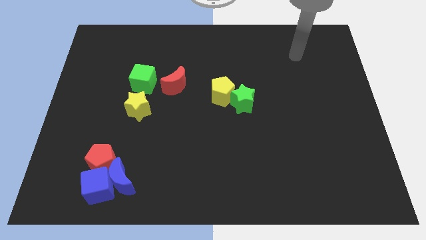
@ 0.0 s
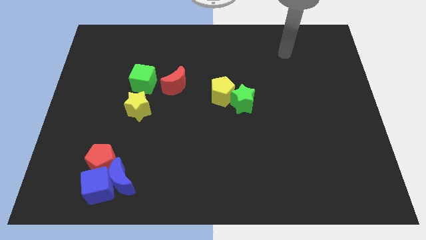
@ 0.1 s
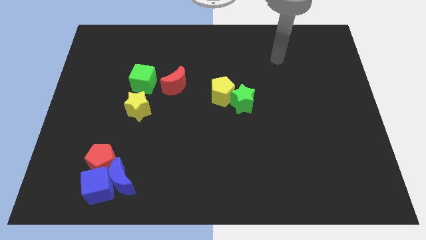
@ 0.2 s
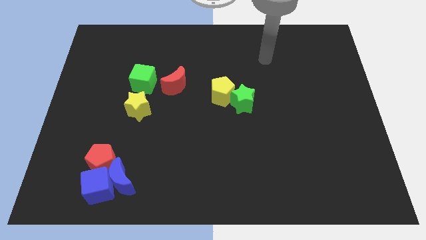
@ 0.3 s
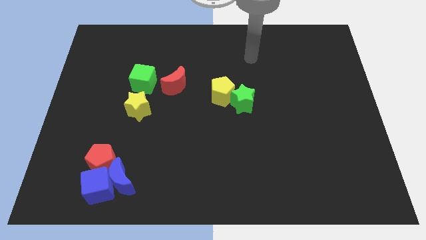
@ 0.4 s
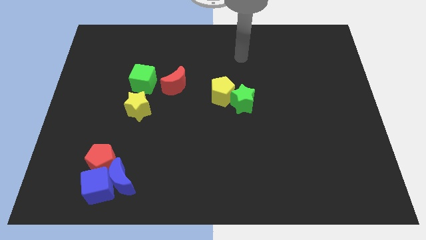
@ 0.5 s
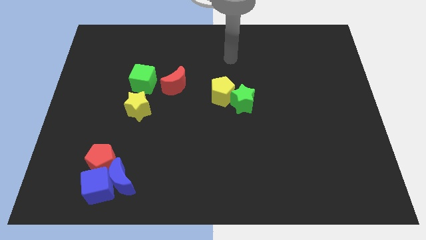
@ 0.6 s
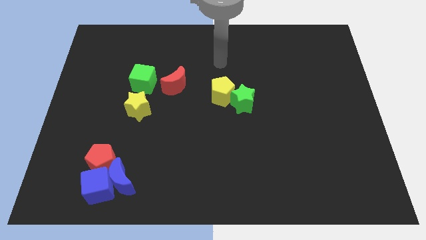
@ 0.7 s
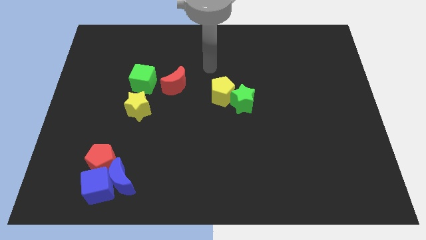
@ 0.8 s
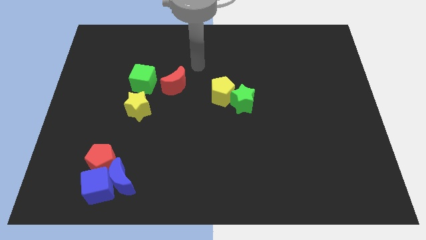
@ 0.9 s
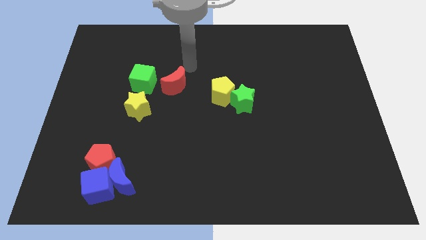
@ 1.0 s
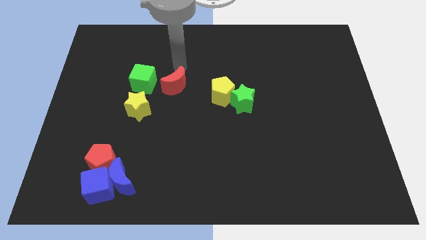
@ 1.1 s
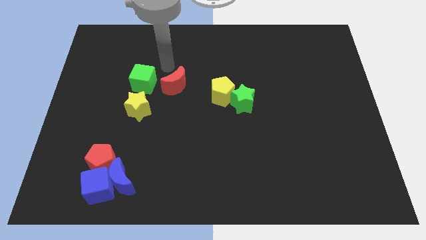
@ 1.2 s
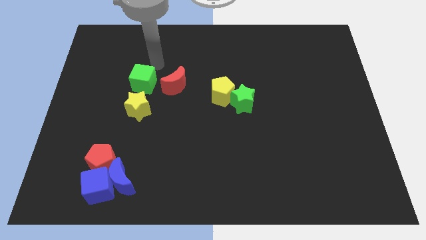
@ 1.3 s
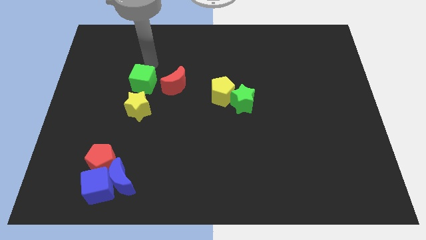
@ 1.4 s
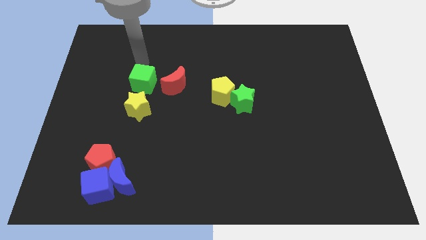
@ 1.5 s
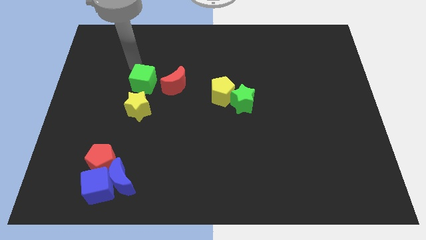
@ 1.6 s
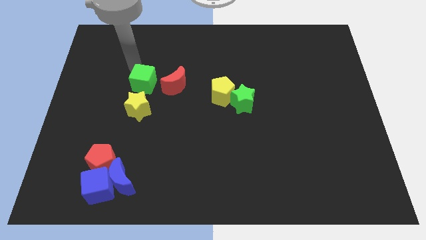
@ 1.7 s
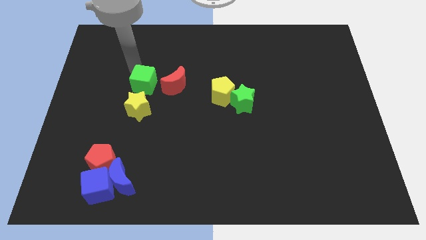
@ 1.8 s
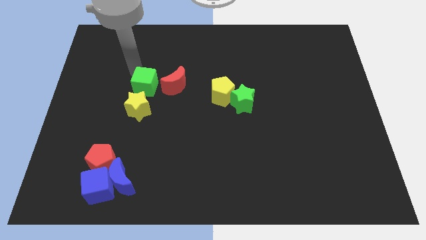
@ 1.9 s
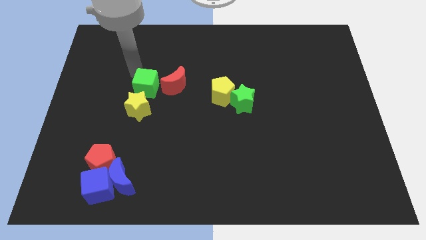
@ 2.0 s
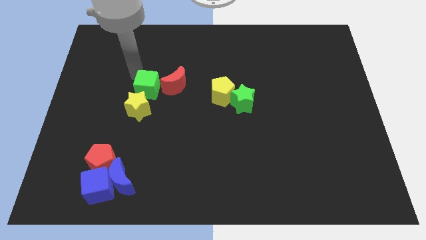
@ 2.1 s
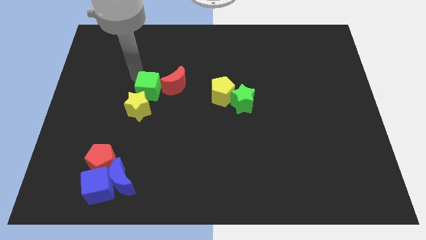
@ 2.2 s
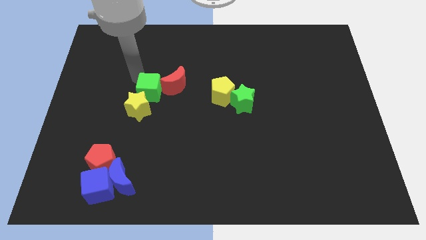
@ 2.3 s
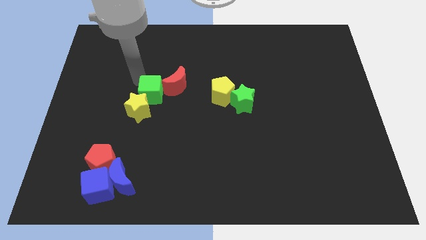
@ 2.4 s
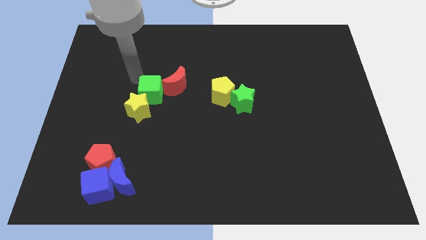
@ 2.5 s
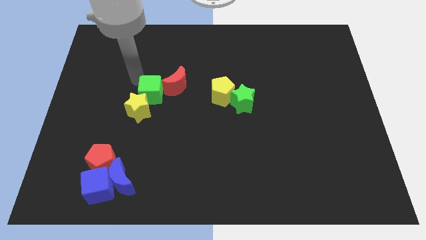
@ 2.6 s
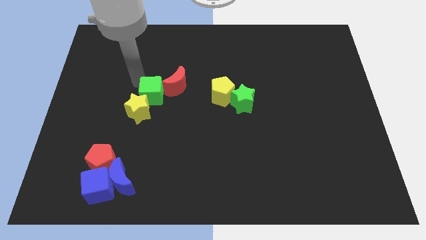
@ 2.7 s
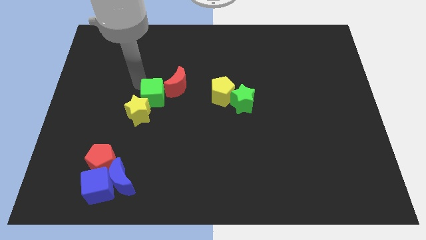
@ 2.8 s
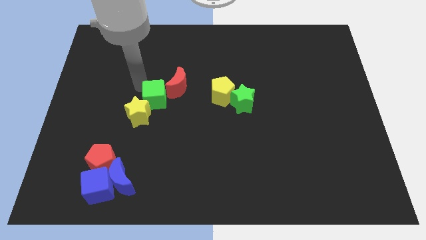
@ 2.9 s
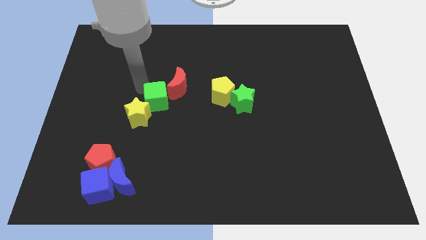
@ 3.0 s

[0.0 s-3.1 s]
slightly slide the green cube diagonally downwards and right

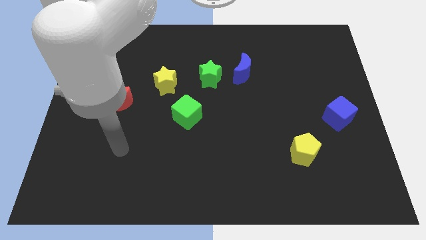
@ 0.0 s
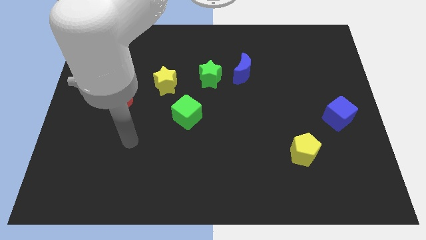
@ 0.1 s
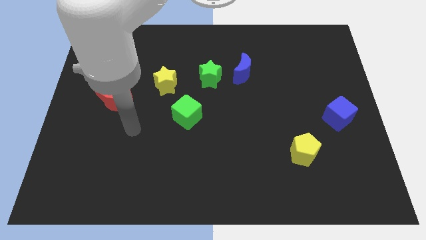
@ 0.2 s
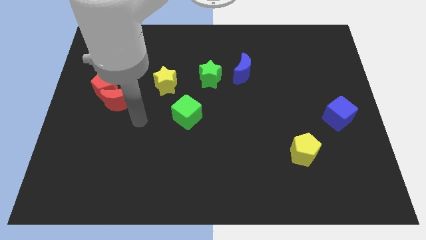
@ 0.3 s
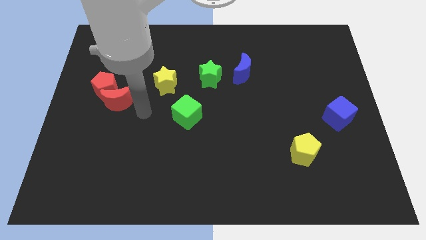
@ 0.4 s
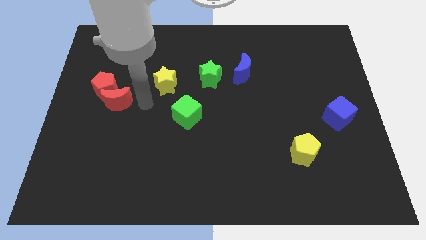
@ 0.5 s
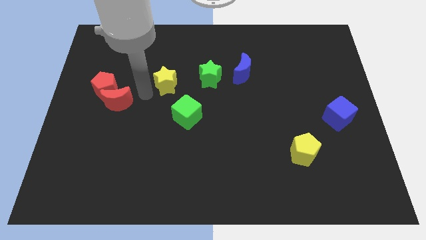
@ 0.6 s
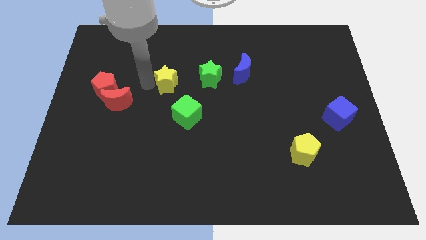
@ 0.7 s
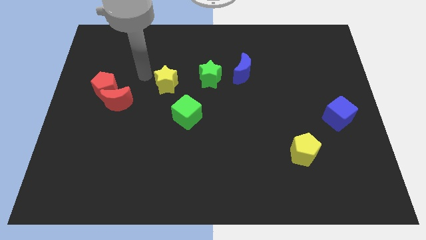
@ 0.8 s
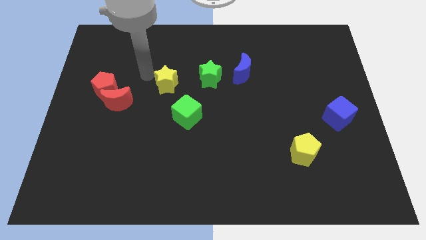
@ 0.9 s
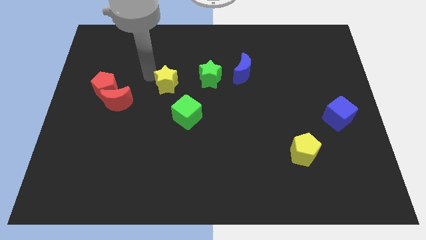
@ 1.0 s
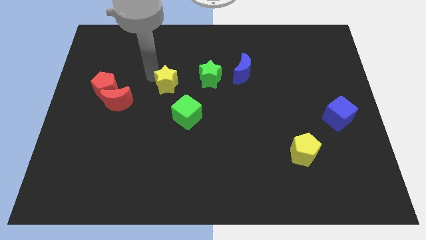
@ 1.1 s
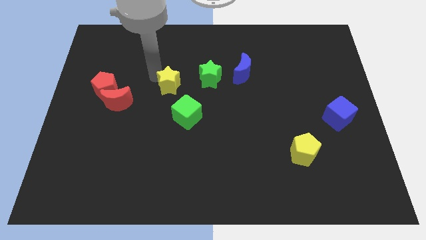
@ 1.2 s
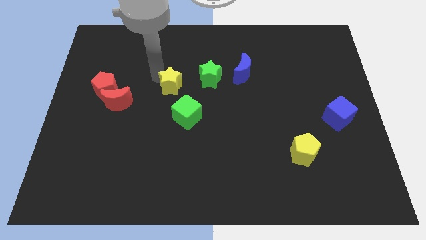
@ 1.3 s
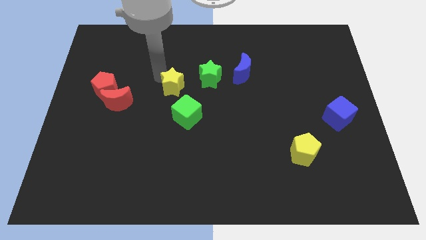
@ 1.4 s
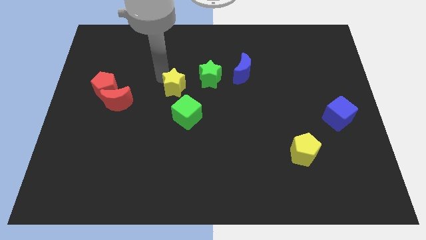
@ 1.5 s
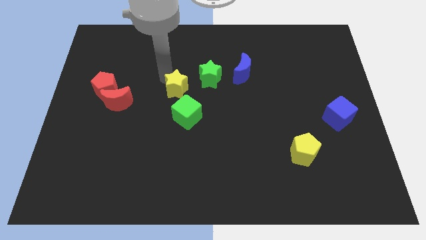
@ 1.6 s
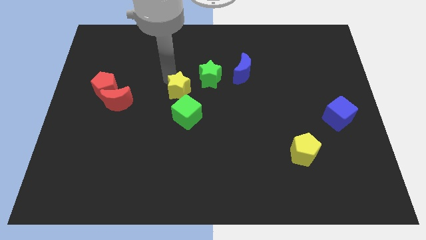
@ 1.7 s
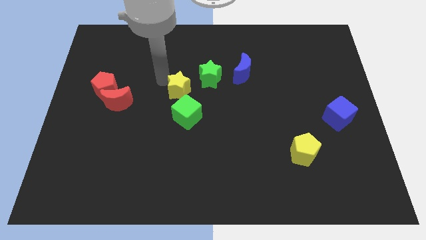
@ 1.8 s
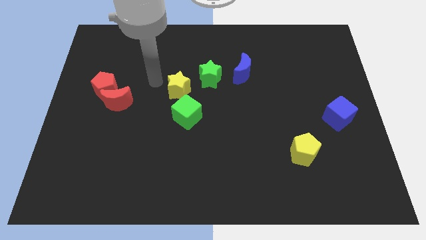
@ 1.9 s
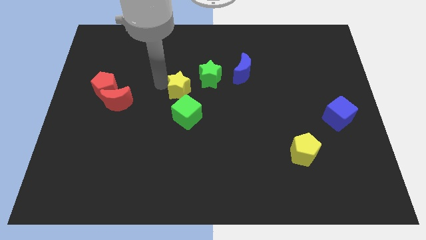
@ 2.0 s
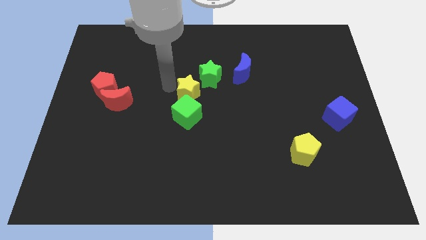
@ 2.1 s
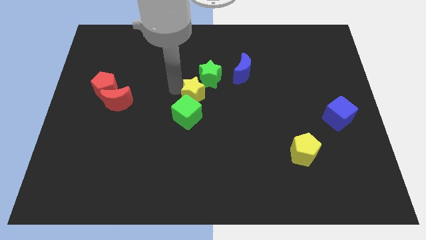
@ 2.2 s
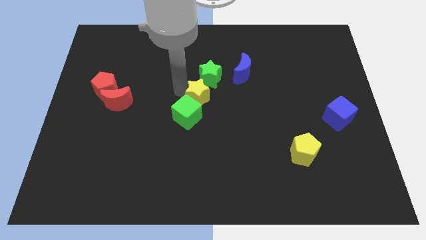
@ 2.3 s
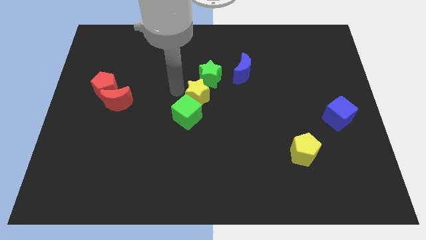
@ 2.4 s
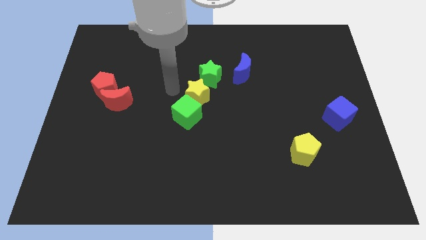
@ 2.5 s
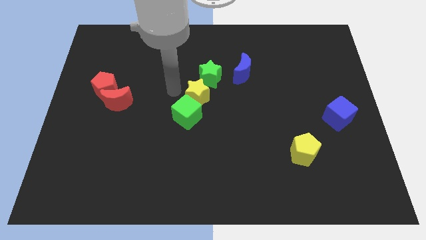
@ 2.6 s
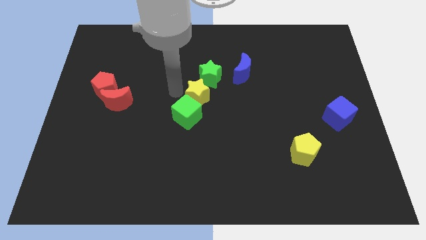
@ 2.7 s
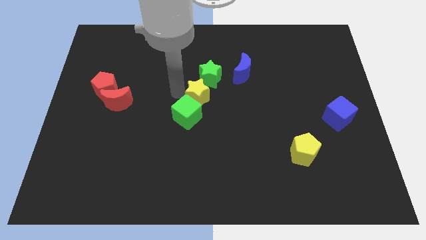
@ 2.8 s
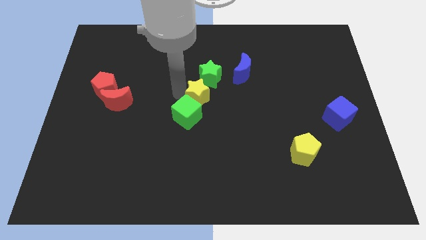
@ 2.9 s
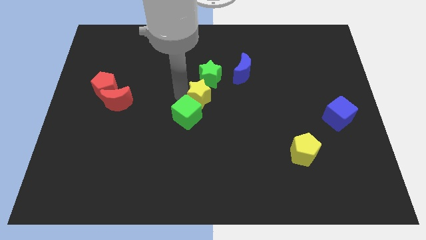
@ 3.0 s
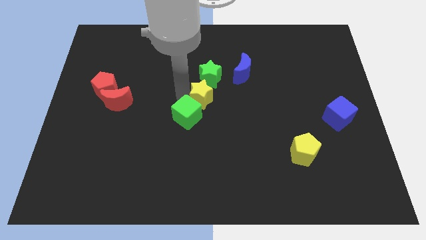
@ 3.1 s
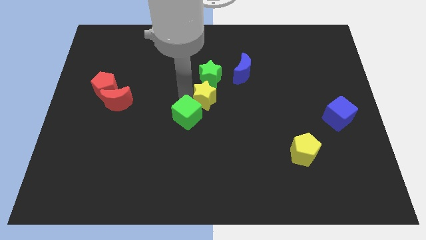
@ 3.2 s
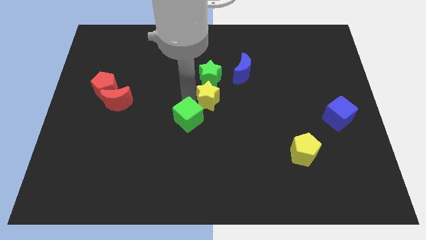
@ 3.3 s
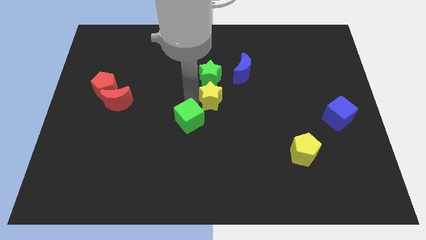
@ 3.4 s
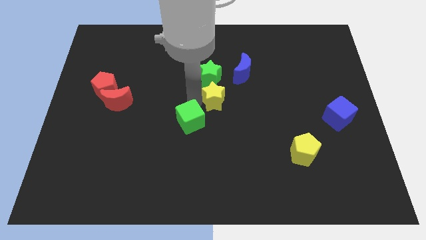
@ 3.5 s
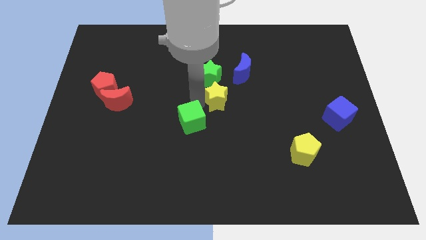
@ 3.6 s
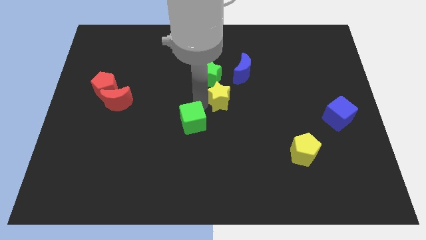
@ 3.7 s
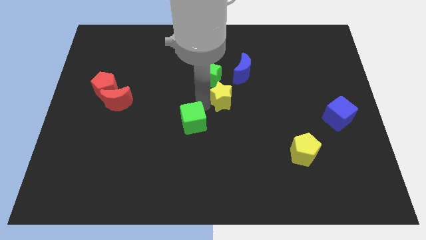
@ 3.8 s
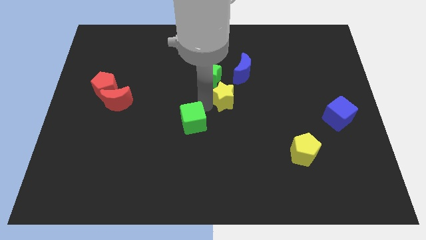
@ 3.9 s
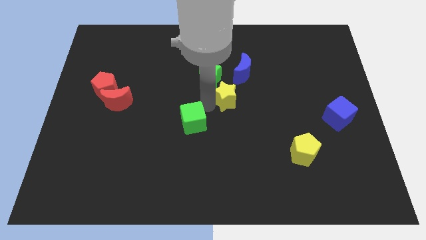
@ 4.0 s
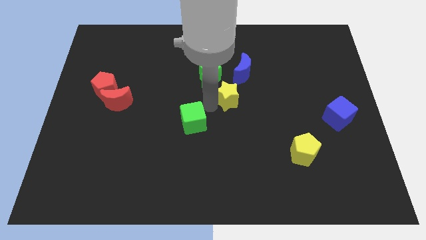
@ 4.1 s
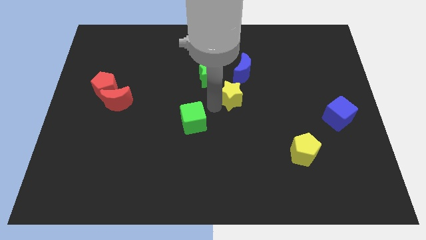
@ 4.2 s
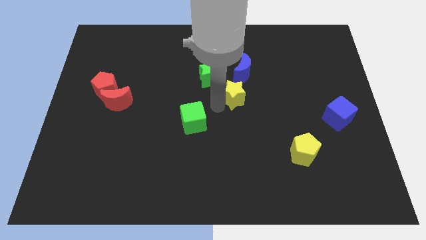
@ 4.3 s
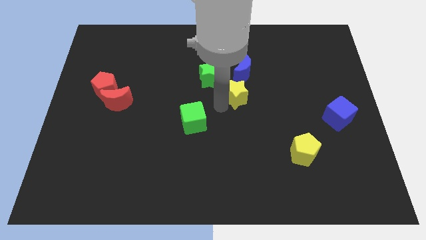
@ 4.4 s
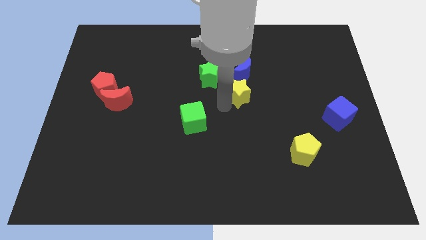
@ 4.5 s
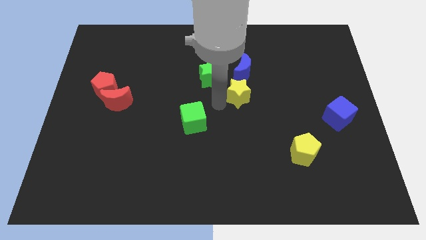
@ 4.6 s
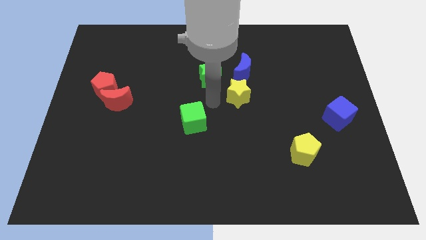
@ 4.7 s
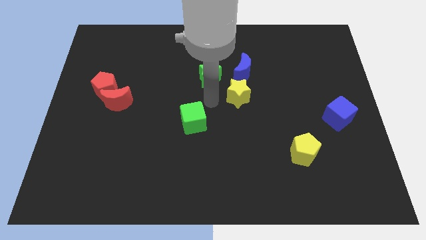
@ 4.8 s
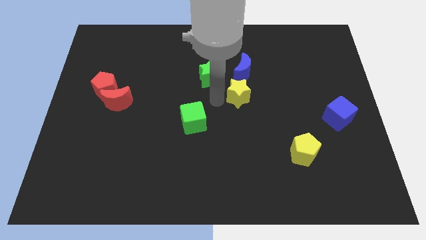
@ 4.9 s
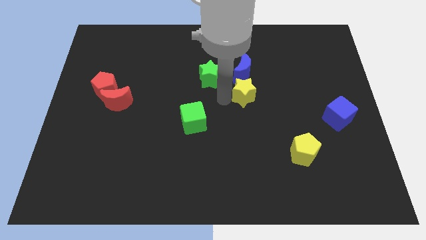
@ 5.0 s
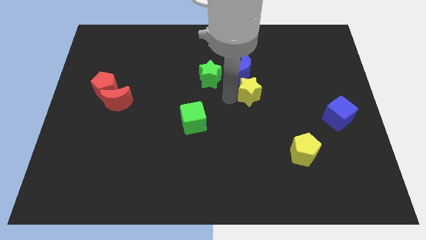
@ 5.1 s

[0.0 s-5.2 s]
move the yellow star right
